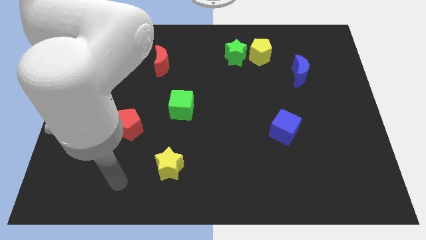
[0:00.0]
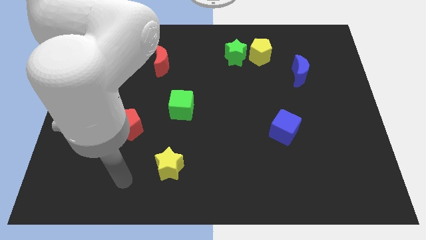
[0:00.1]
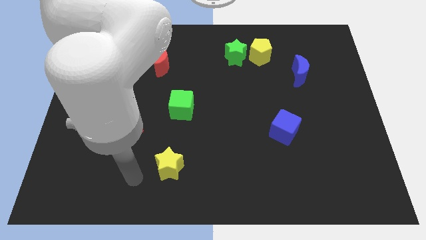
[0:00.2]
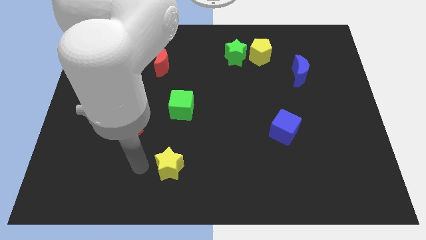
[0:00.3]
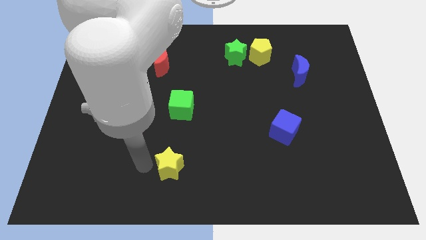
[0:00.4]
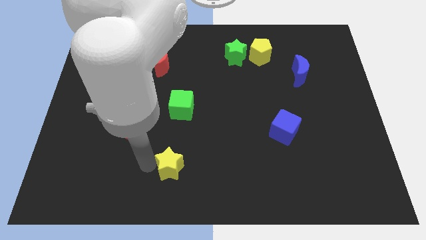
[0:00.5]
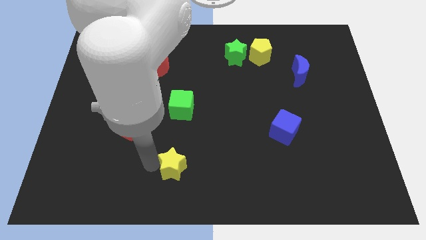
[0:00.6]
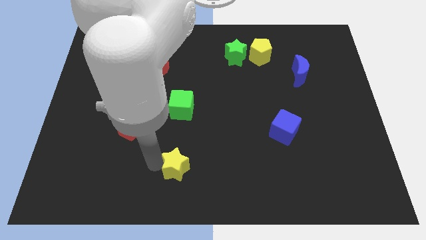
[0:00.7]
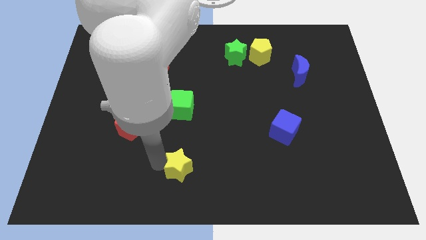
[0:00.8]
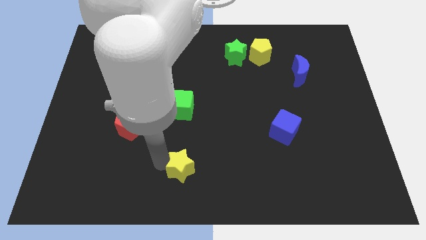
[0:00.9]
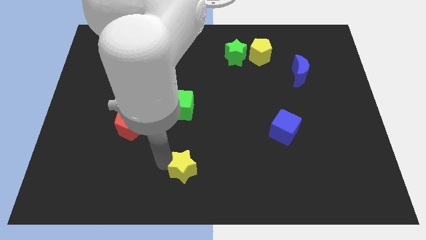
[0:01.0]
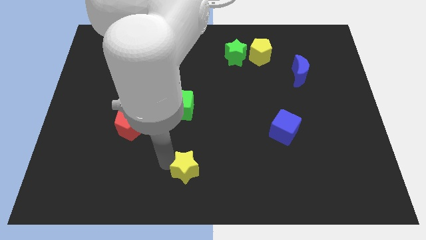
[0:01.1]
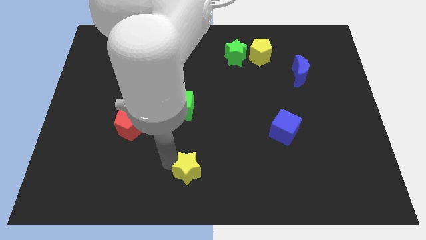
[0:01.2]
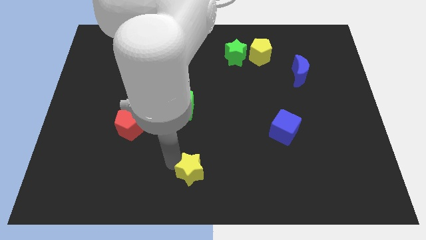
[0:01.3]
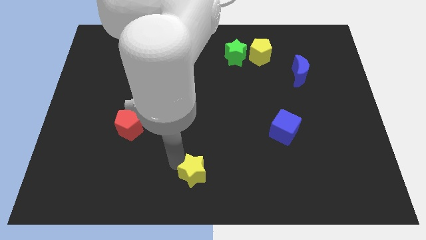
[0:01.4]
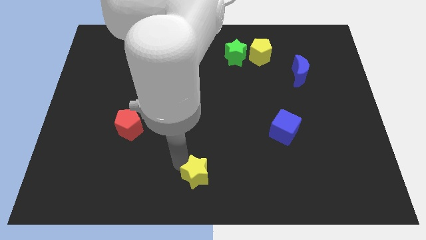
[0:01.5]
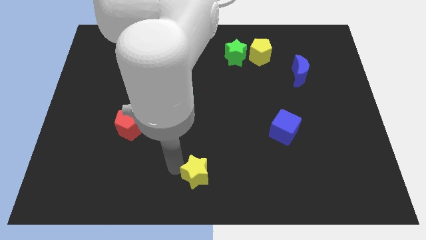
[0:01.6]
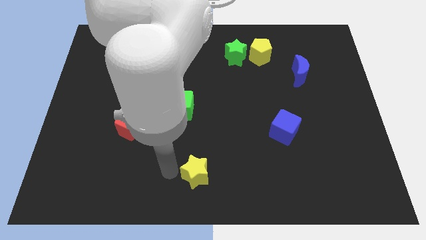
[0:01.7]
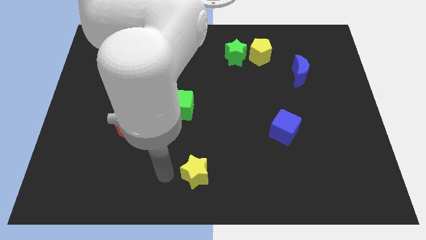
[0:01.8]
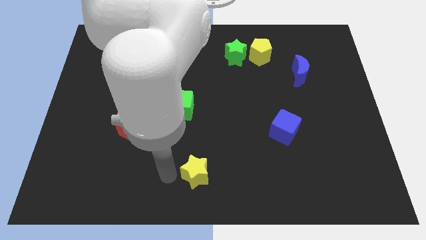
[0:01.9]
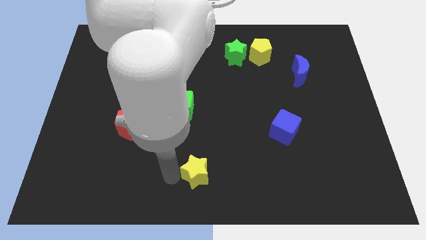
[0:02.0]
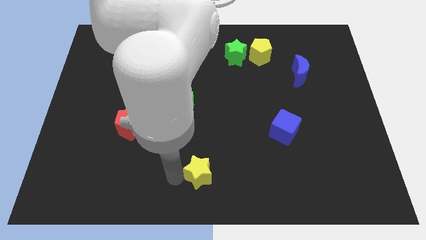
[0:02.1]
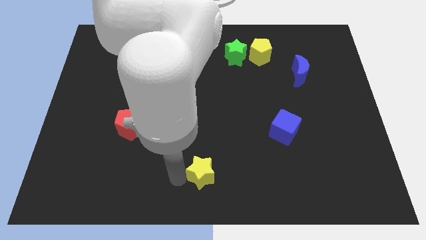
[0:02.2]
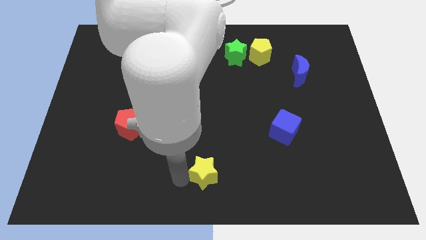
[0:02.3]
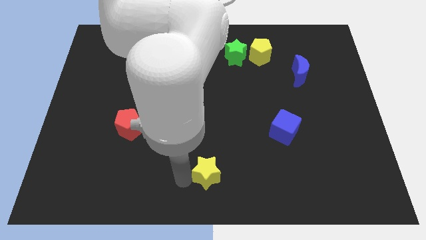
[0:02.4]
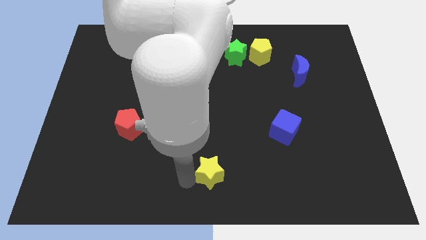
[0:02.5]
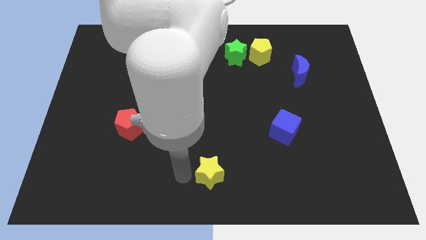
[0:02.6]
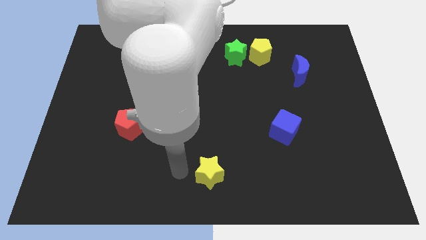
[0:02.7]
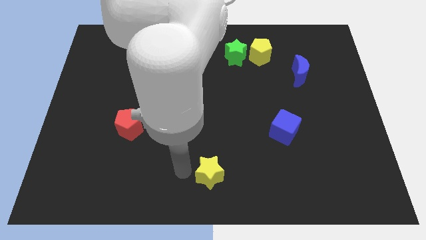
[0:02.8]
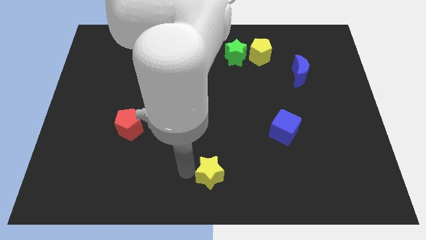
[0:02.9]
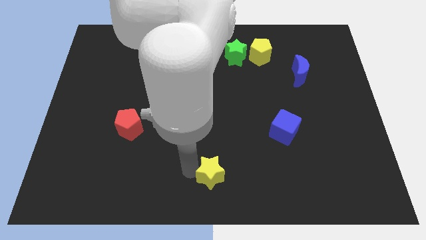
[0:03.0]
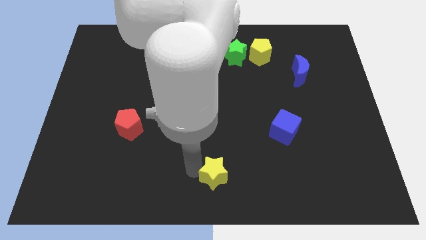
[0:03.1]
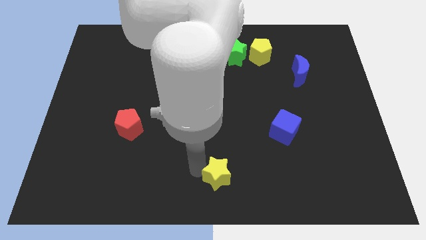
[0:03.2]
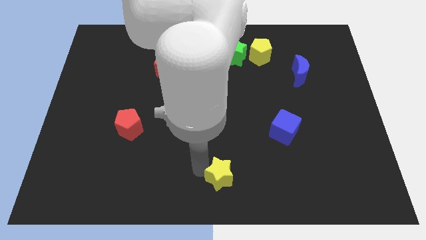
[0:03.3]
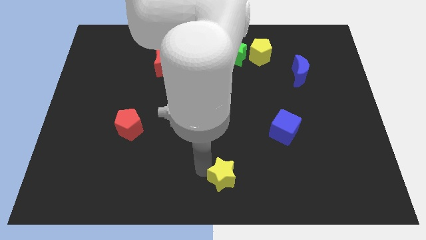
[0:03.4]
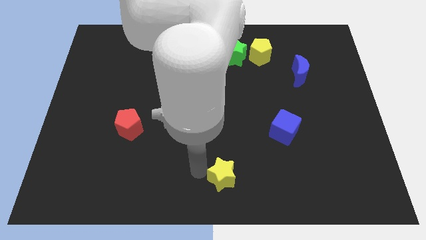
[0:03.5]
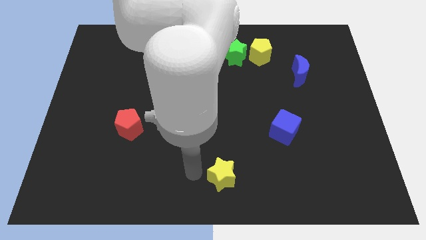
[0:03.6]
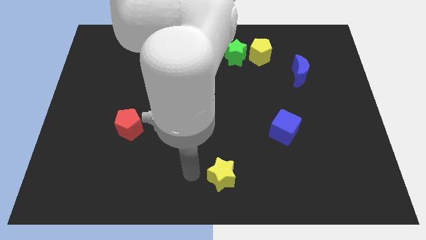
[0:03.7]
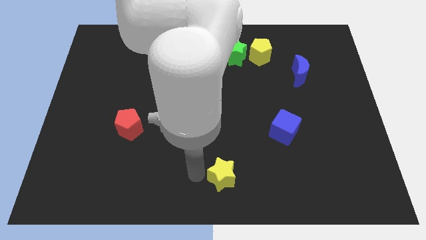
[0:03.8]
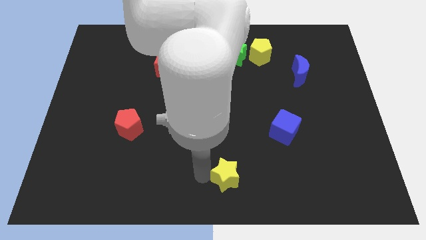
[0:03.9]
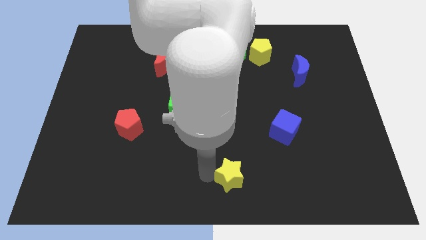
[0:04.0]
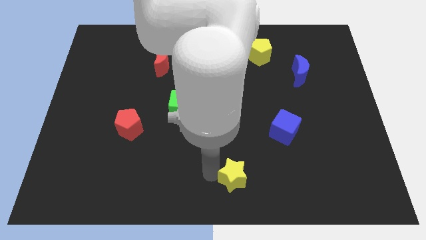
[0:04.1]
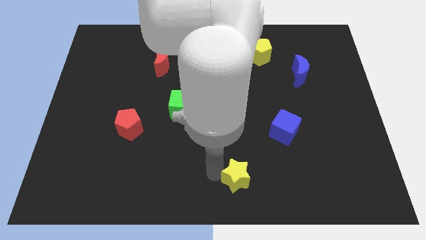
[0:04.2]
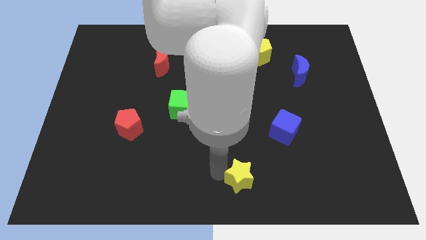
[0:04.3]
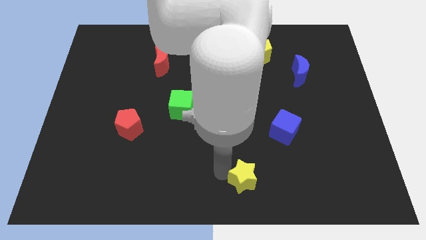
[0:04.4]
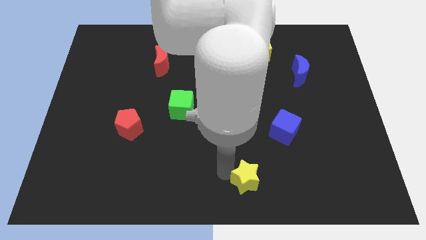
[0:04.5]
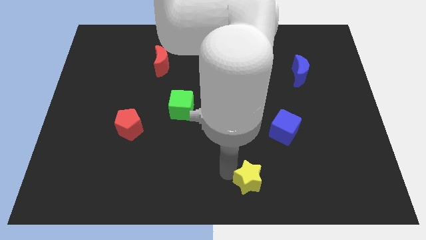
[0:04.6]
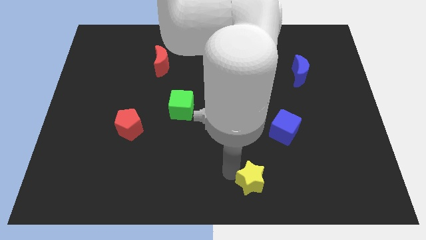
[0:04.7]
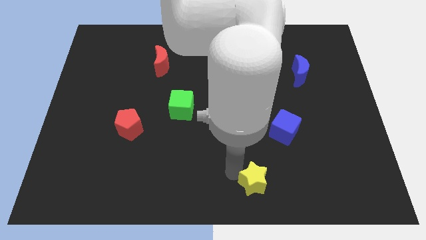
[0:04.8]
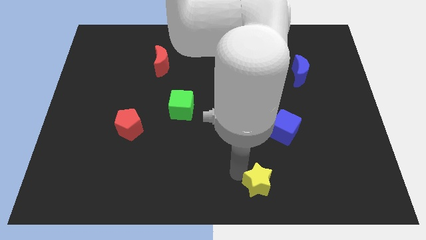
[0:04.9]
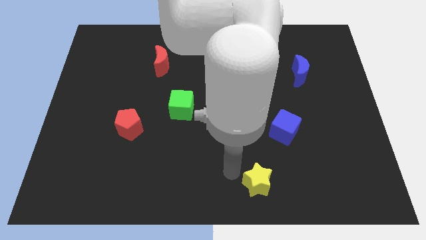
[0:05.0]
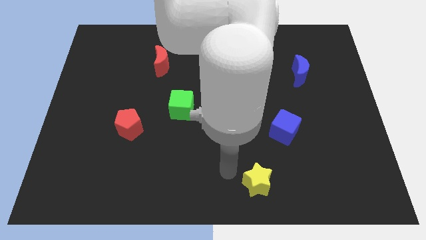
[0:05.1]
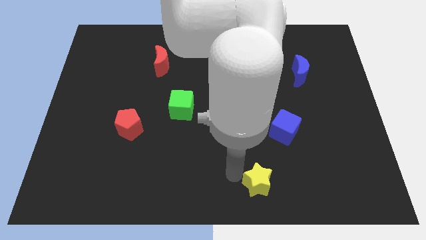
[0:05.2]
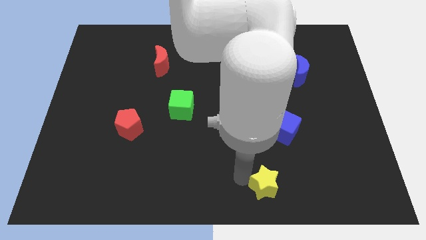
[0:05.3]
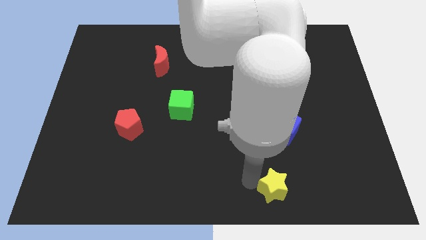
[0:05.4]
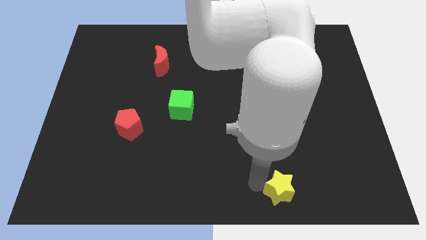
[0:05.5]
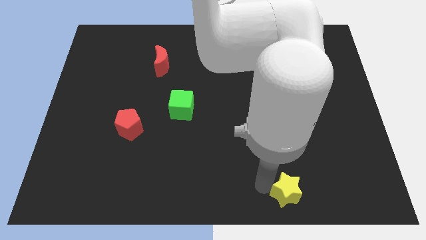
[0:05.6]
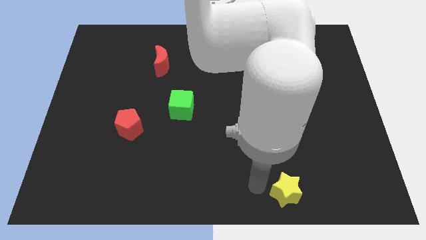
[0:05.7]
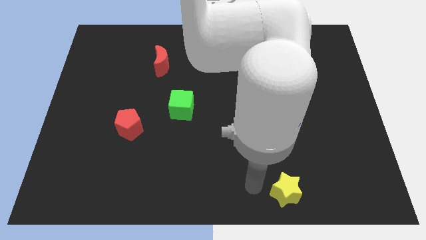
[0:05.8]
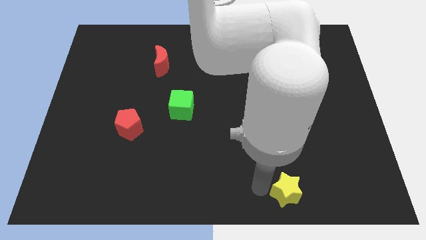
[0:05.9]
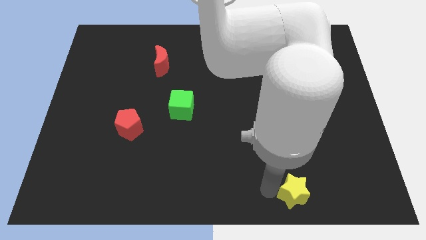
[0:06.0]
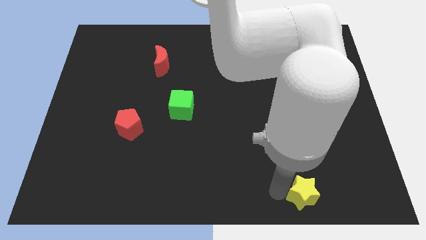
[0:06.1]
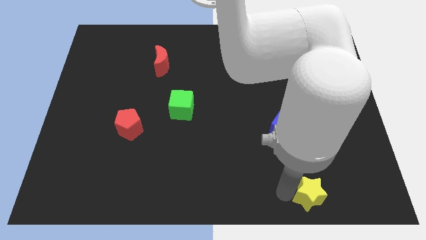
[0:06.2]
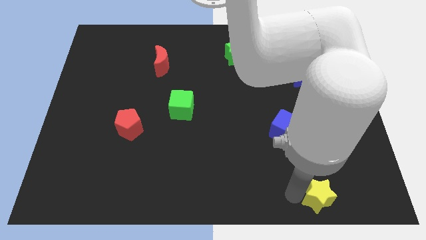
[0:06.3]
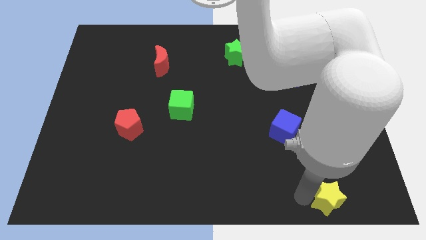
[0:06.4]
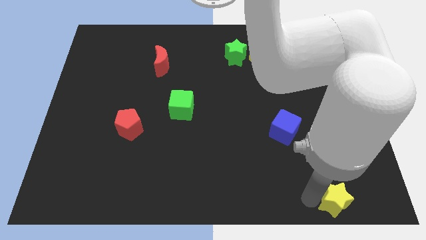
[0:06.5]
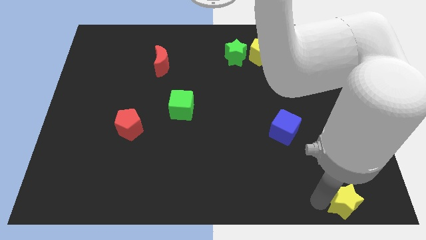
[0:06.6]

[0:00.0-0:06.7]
push the yellow star to the bottom right corner

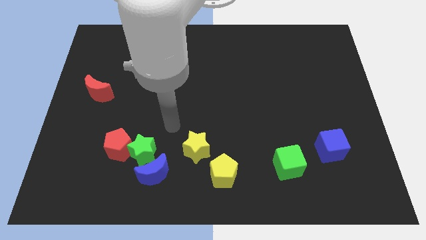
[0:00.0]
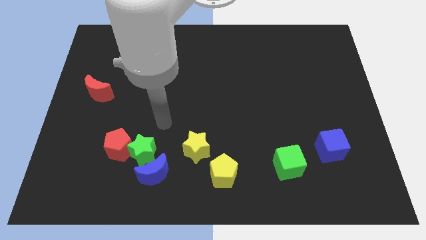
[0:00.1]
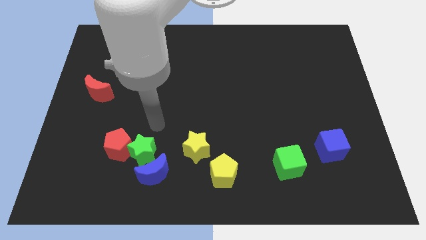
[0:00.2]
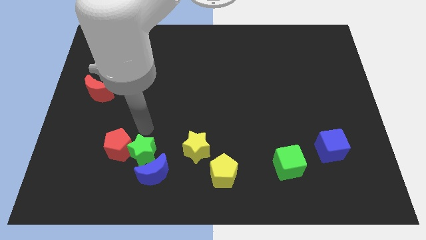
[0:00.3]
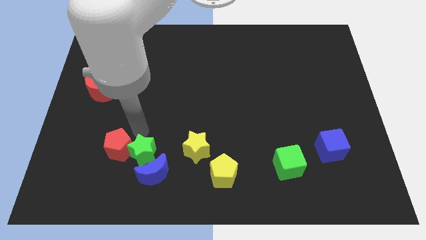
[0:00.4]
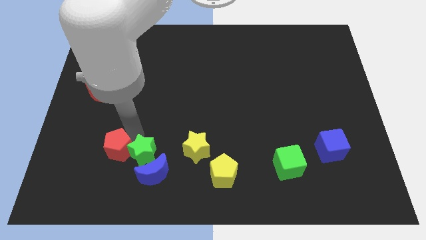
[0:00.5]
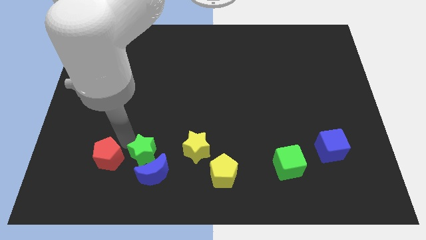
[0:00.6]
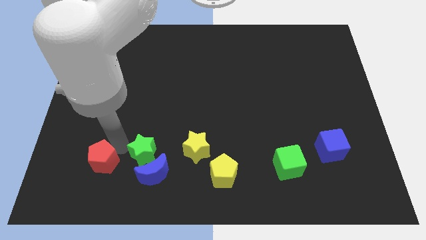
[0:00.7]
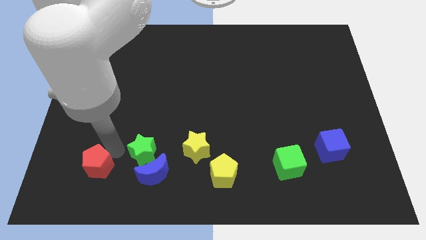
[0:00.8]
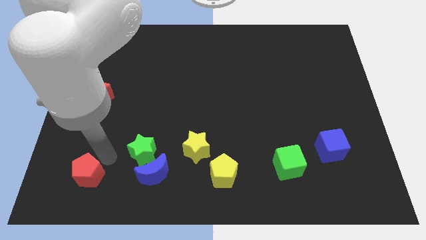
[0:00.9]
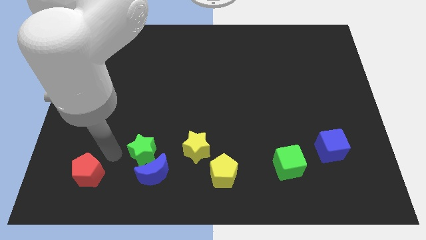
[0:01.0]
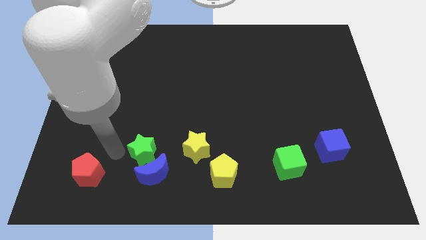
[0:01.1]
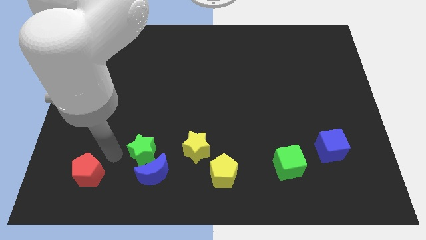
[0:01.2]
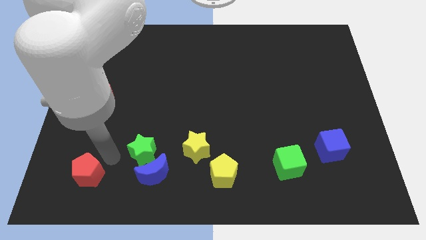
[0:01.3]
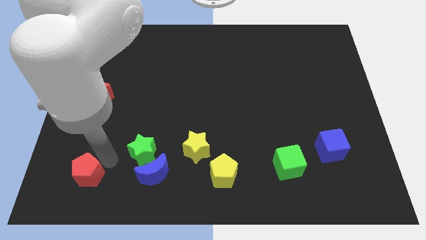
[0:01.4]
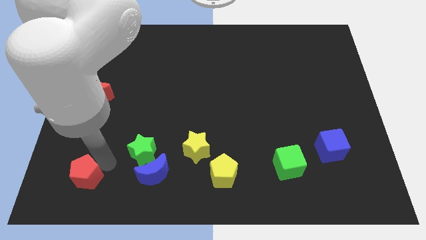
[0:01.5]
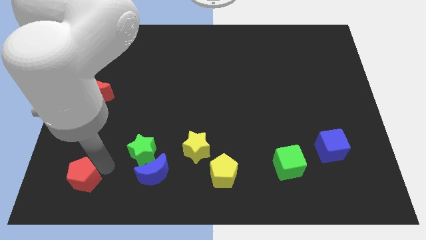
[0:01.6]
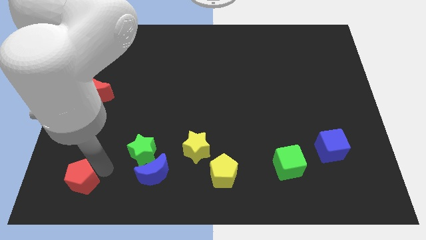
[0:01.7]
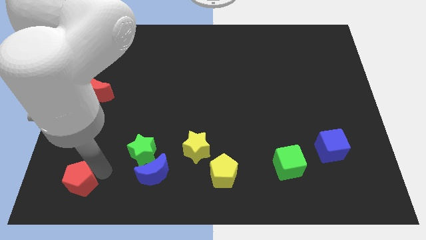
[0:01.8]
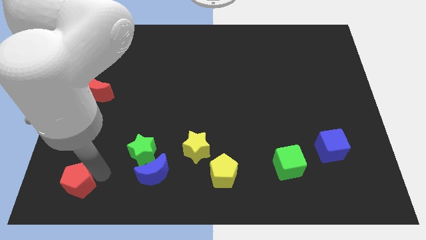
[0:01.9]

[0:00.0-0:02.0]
move the red pentagon to the bottom left
